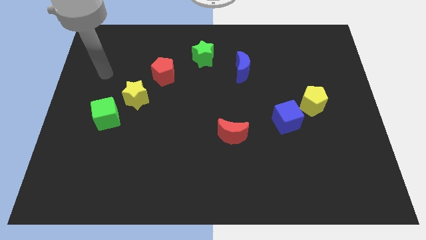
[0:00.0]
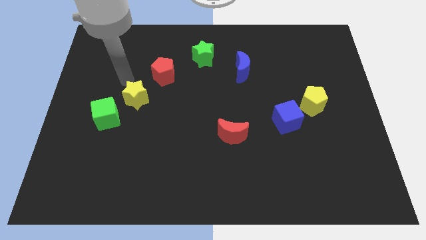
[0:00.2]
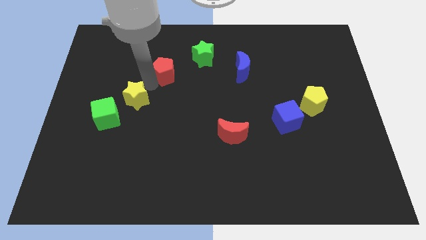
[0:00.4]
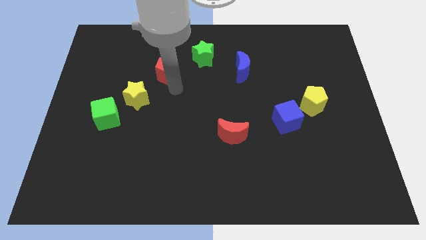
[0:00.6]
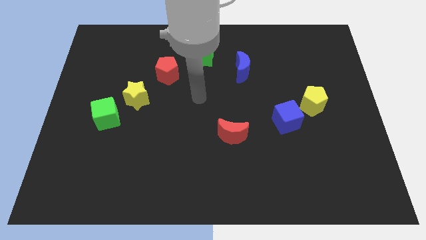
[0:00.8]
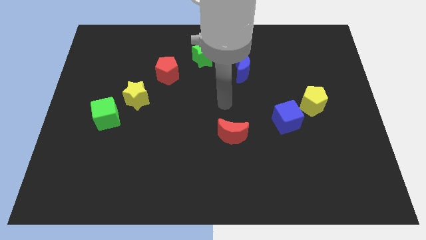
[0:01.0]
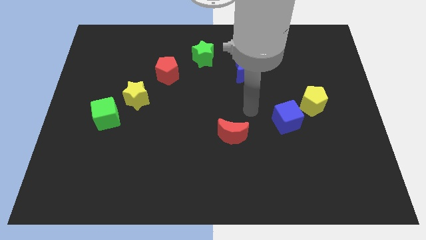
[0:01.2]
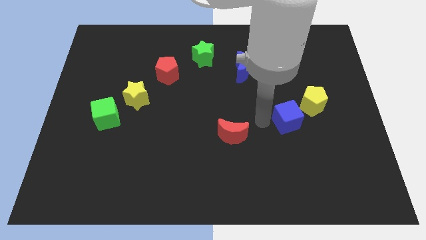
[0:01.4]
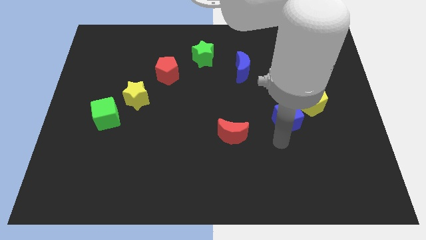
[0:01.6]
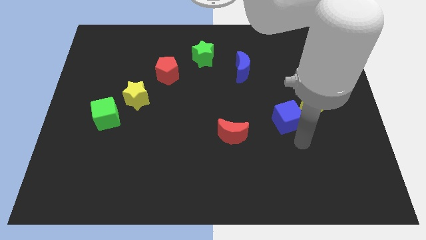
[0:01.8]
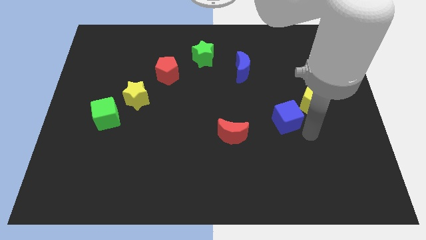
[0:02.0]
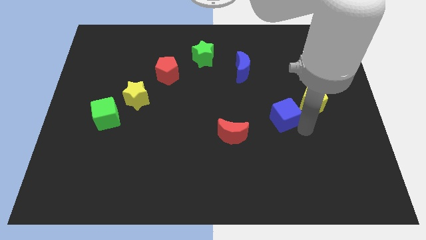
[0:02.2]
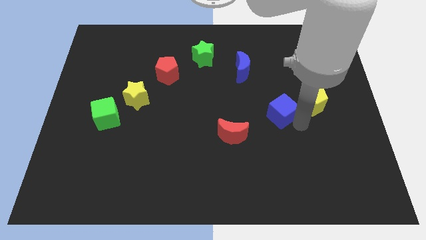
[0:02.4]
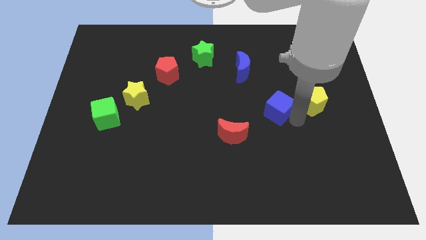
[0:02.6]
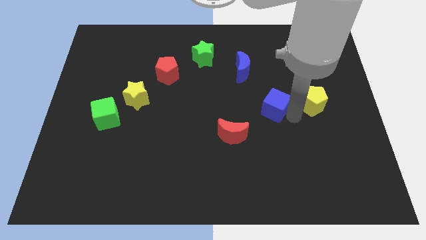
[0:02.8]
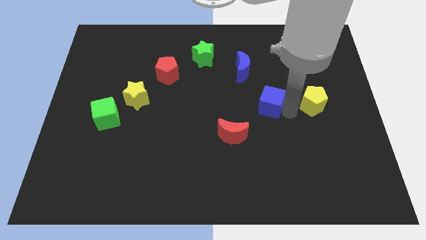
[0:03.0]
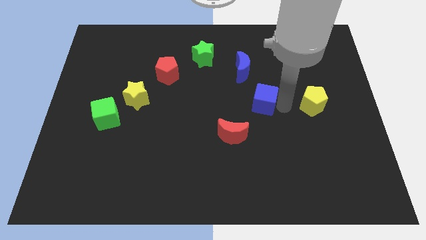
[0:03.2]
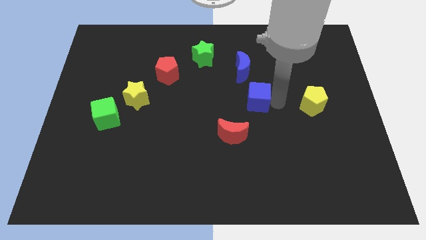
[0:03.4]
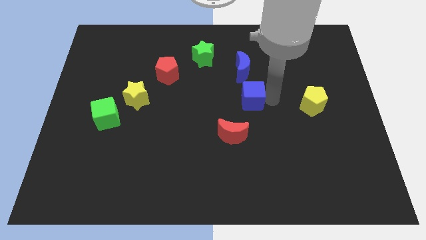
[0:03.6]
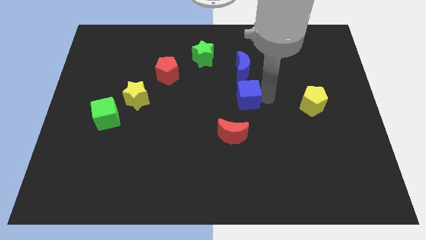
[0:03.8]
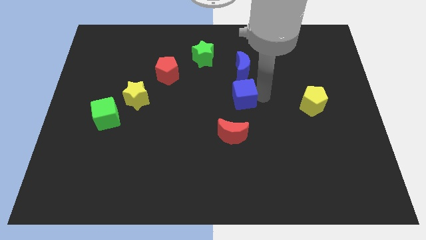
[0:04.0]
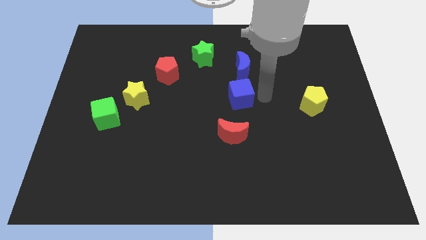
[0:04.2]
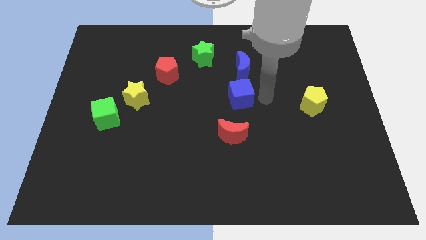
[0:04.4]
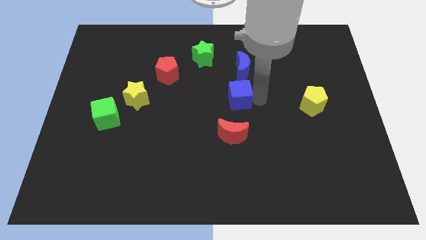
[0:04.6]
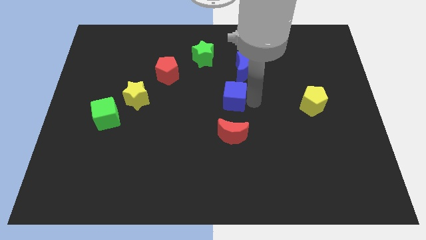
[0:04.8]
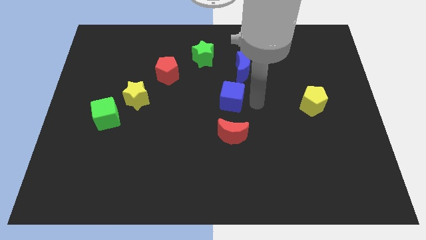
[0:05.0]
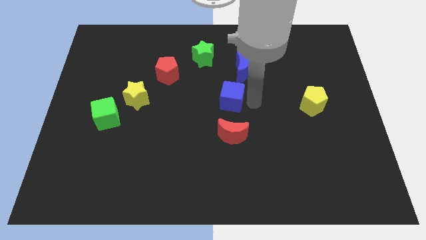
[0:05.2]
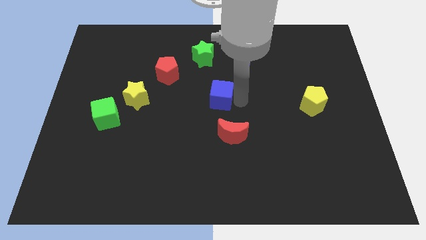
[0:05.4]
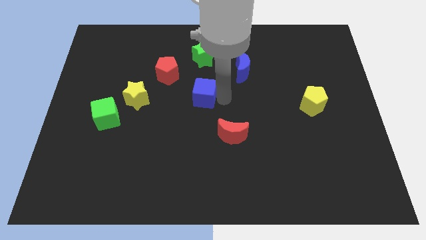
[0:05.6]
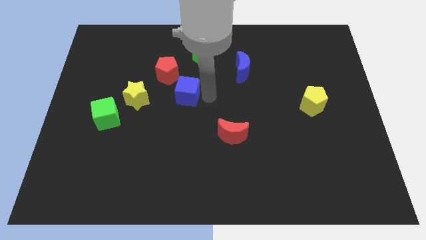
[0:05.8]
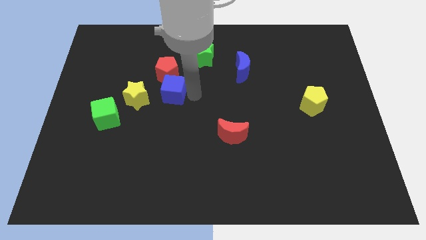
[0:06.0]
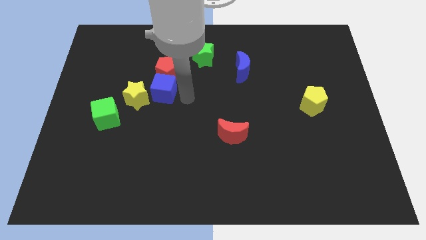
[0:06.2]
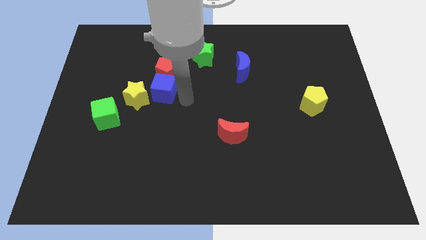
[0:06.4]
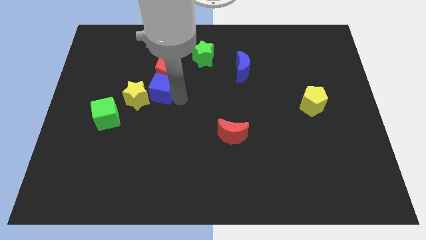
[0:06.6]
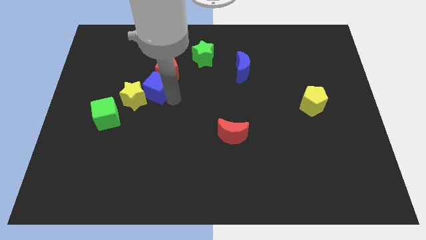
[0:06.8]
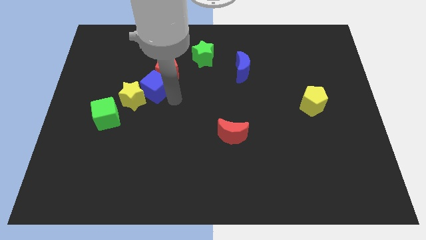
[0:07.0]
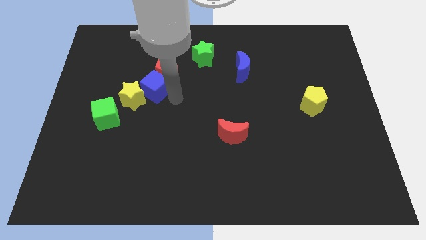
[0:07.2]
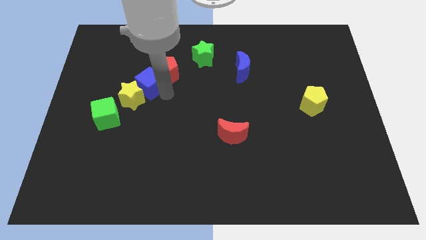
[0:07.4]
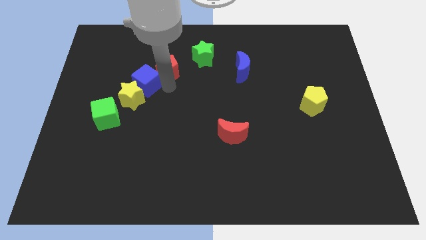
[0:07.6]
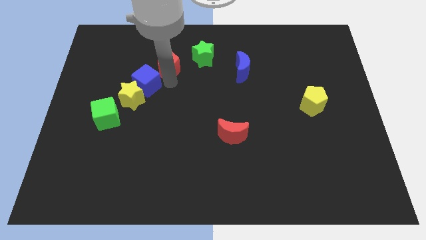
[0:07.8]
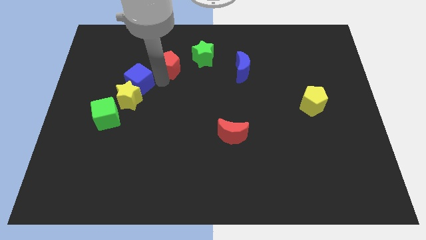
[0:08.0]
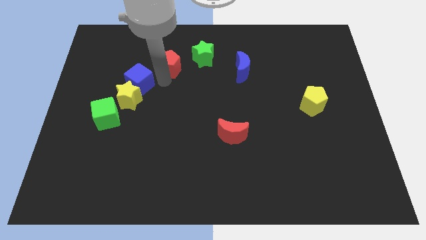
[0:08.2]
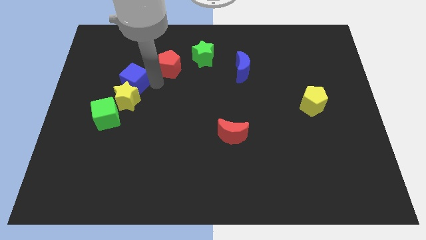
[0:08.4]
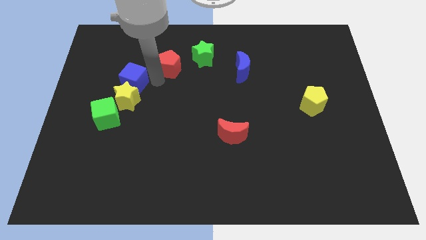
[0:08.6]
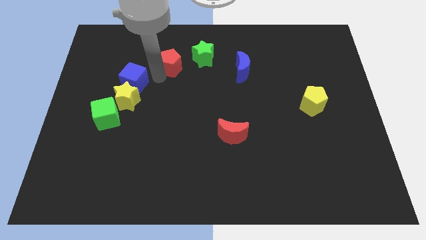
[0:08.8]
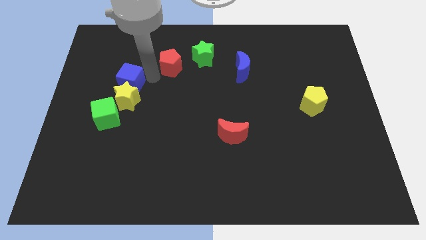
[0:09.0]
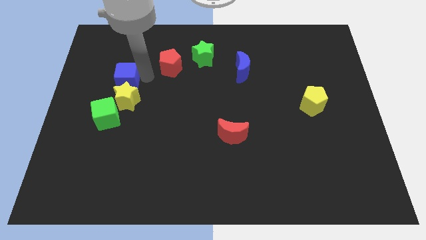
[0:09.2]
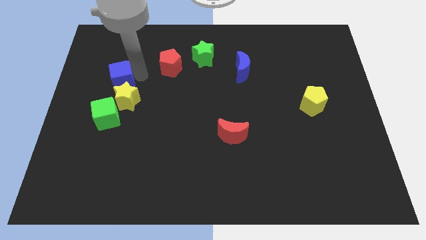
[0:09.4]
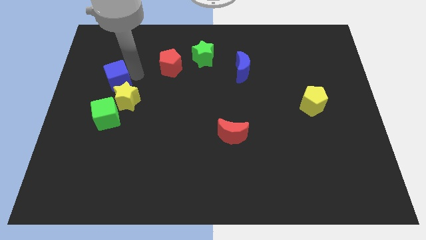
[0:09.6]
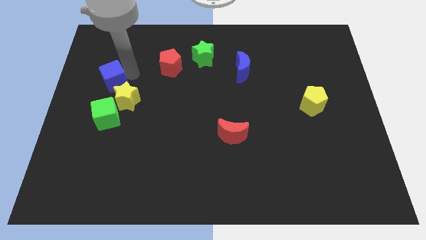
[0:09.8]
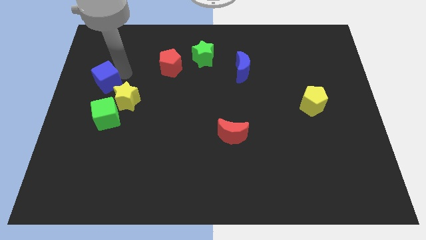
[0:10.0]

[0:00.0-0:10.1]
slide the blue cube to the left side of the board

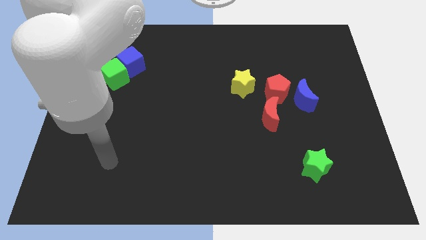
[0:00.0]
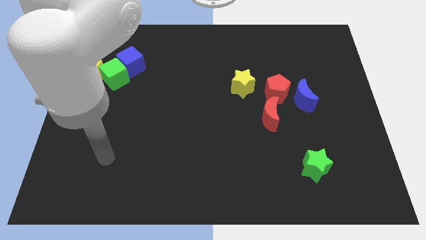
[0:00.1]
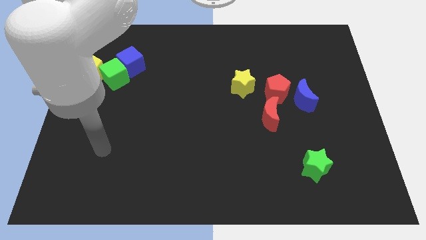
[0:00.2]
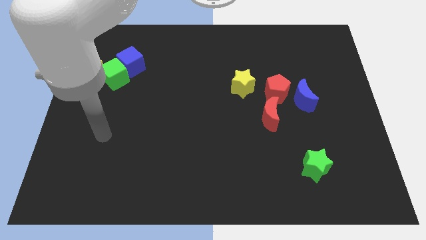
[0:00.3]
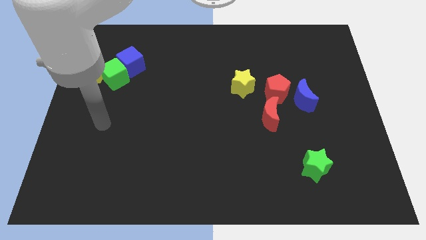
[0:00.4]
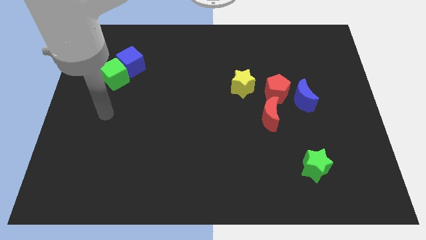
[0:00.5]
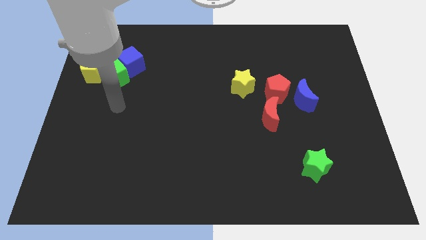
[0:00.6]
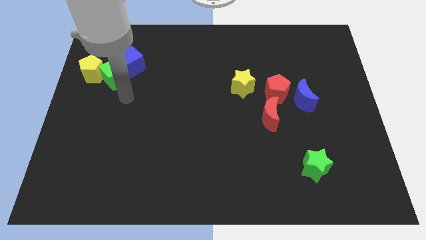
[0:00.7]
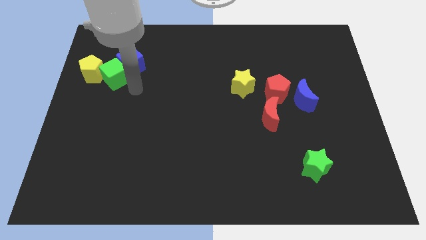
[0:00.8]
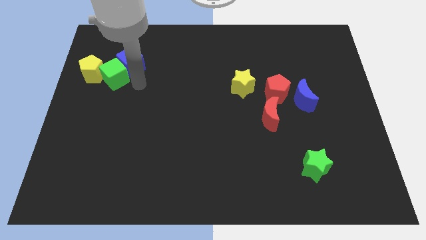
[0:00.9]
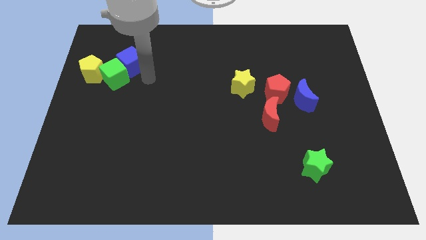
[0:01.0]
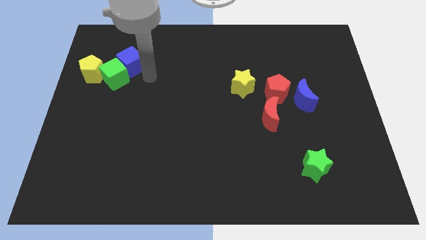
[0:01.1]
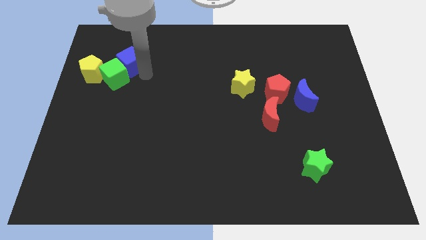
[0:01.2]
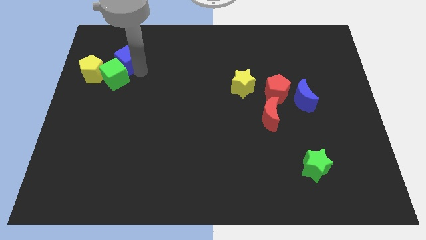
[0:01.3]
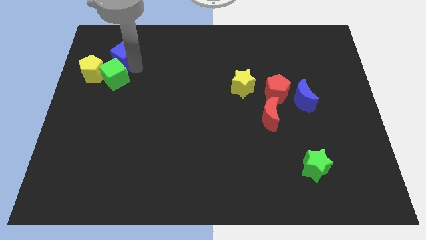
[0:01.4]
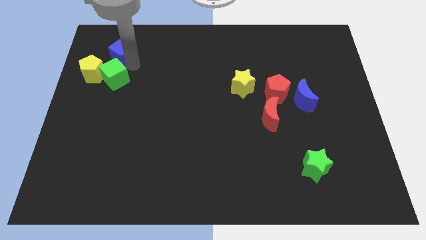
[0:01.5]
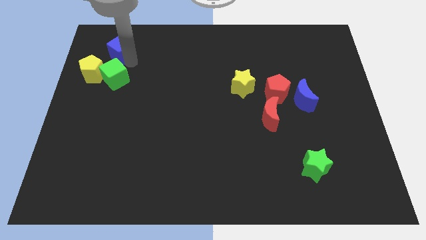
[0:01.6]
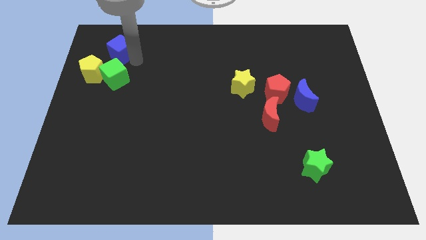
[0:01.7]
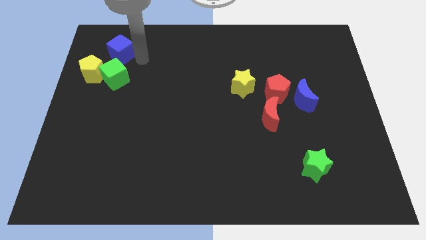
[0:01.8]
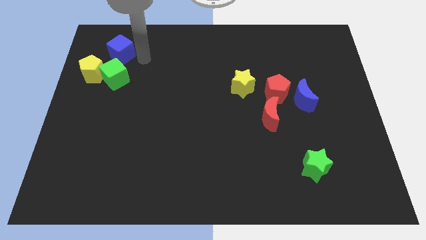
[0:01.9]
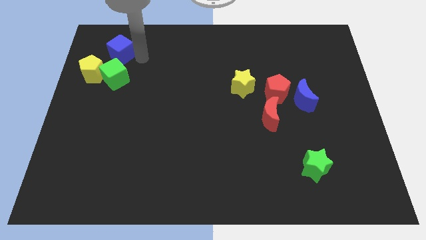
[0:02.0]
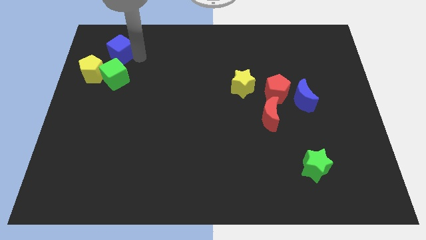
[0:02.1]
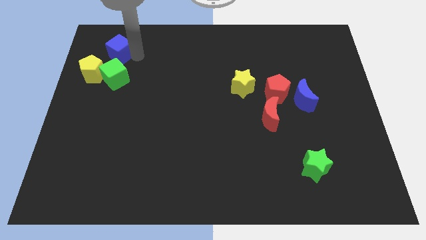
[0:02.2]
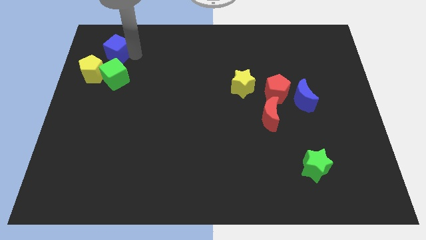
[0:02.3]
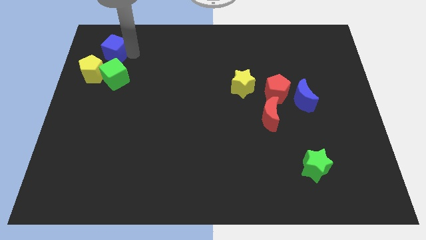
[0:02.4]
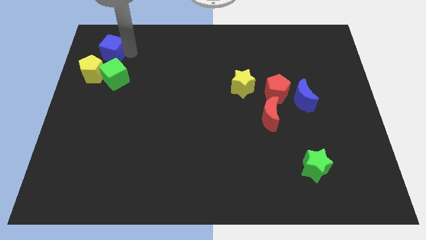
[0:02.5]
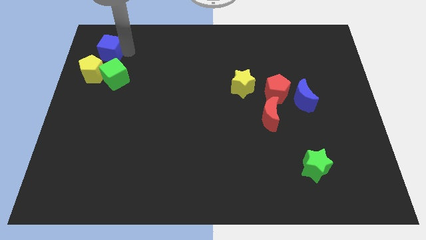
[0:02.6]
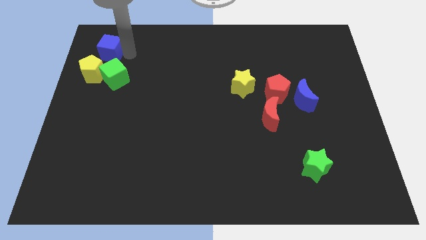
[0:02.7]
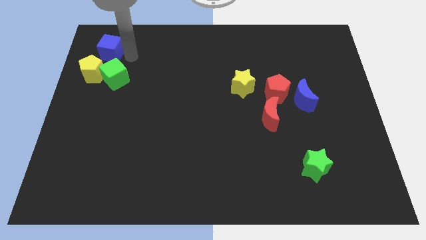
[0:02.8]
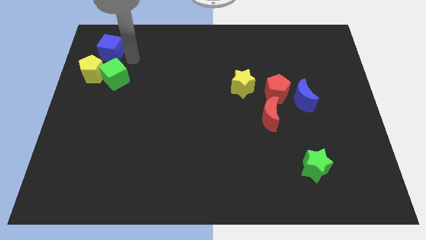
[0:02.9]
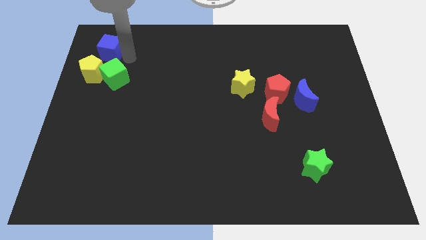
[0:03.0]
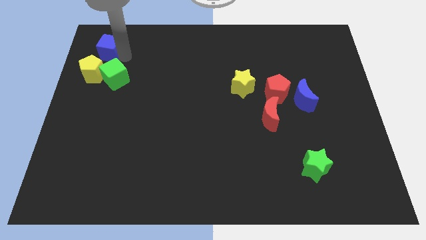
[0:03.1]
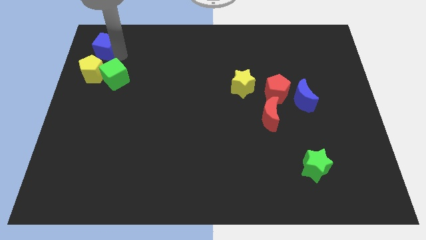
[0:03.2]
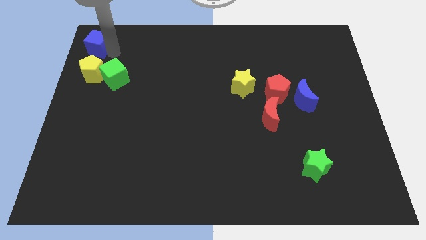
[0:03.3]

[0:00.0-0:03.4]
push the blue cube to the top left
